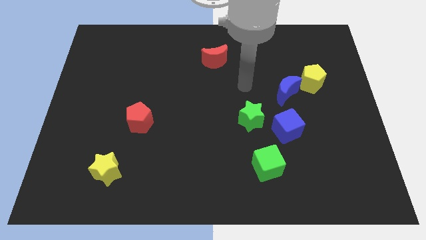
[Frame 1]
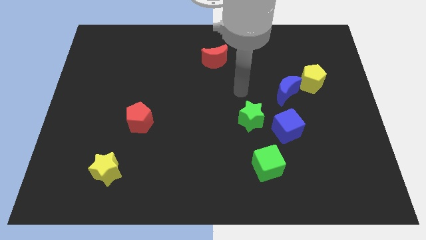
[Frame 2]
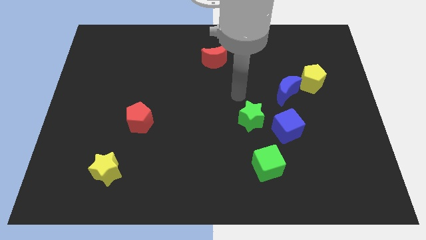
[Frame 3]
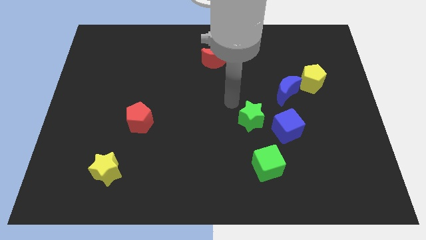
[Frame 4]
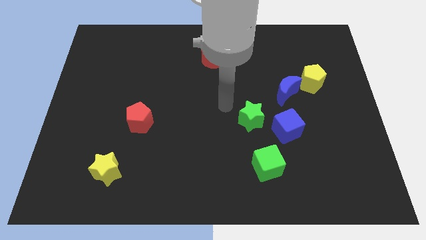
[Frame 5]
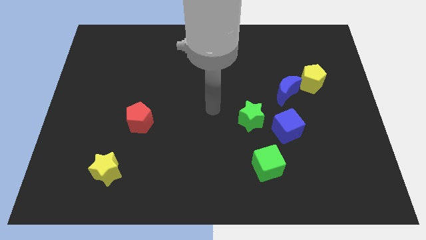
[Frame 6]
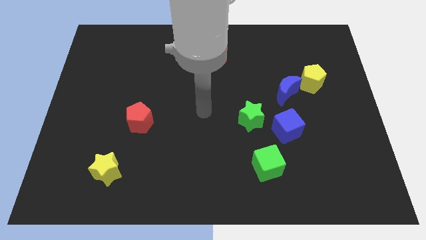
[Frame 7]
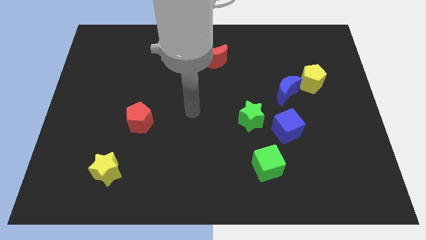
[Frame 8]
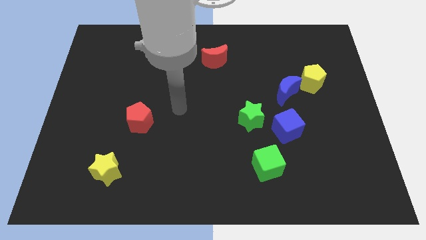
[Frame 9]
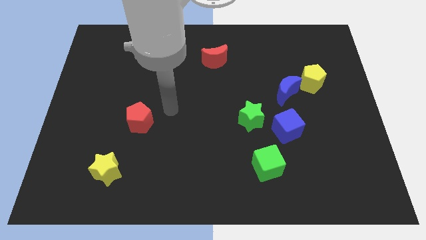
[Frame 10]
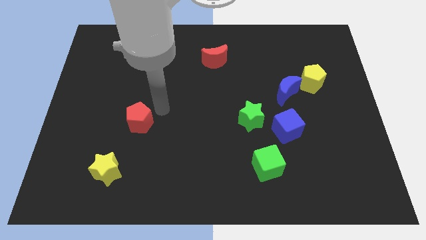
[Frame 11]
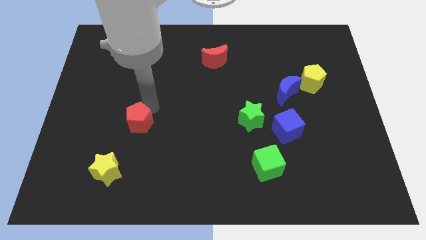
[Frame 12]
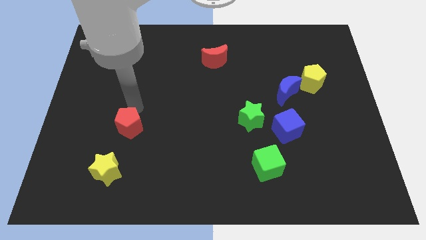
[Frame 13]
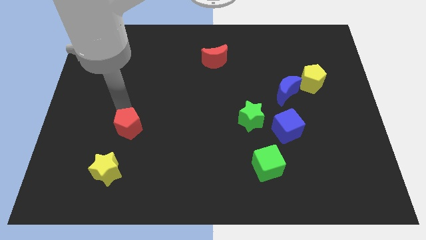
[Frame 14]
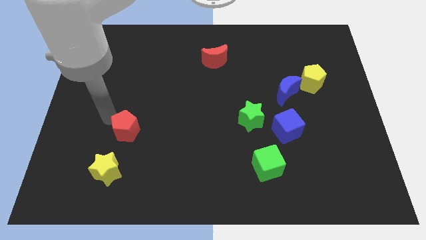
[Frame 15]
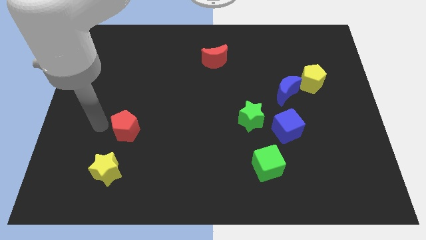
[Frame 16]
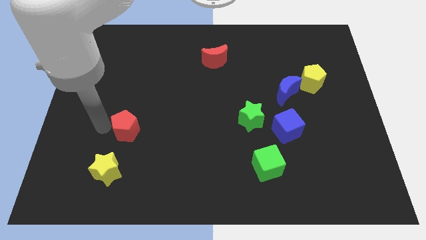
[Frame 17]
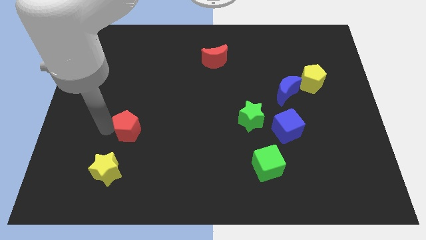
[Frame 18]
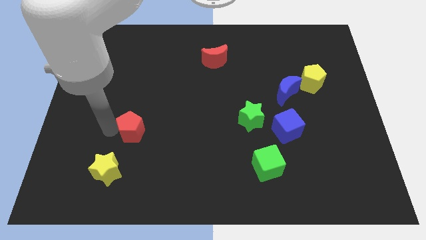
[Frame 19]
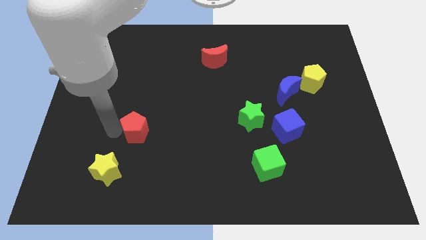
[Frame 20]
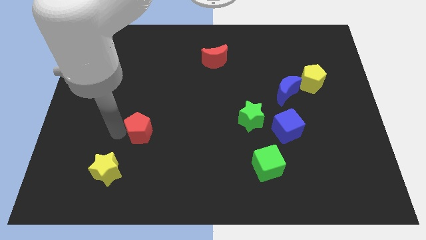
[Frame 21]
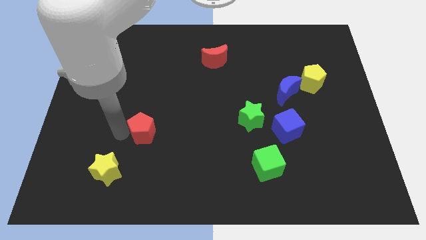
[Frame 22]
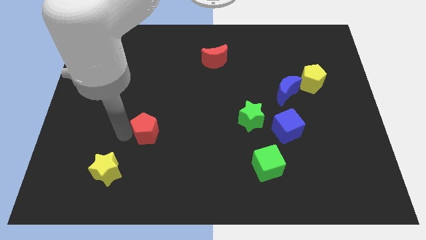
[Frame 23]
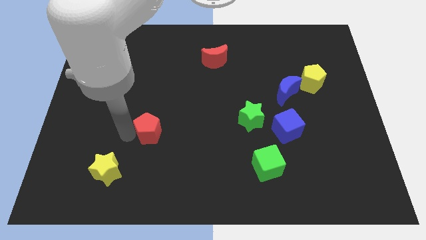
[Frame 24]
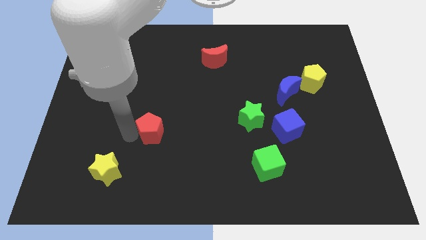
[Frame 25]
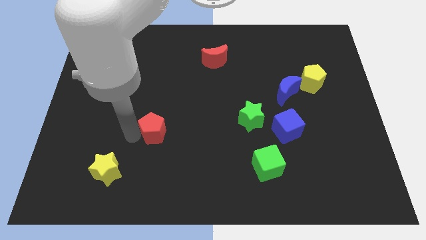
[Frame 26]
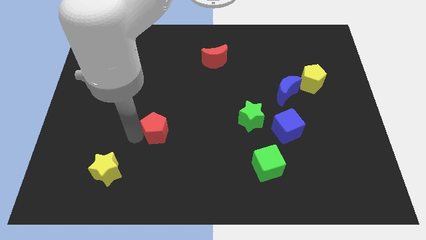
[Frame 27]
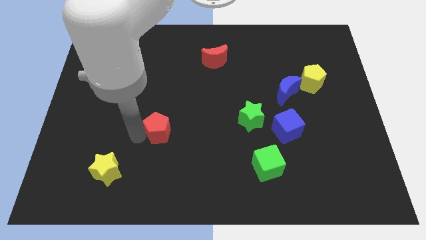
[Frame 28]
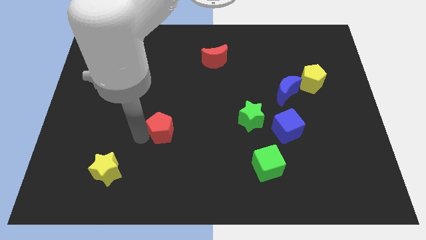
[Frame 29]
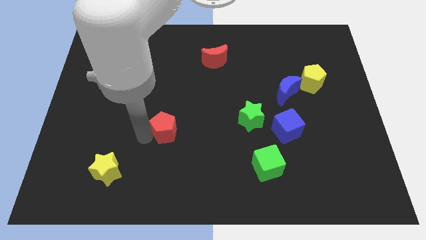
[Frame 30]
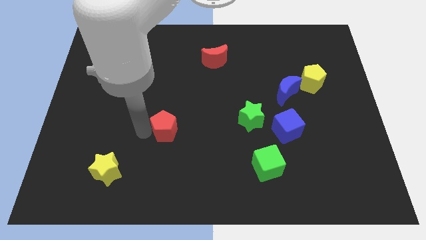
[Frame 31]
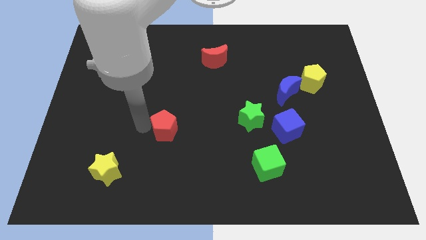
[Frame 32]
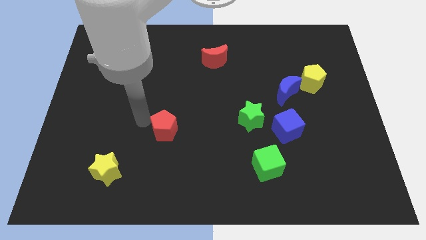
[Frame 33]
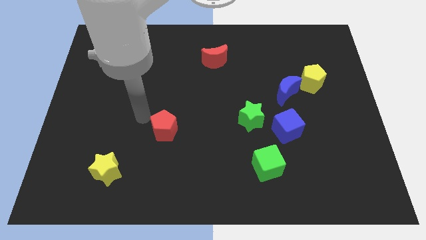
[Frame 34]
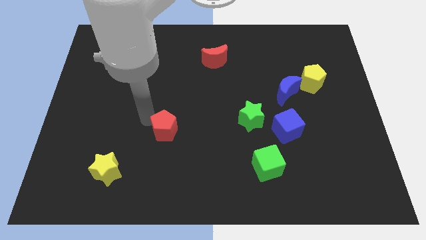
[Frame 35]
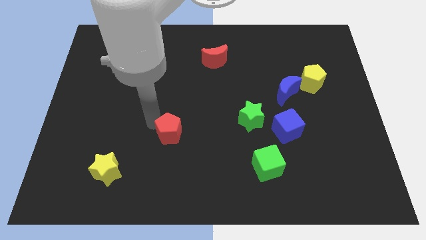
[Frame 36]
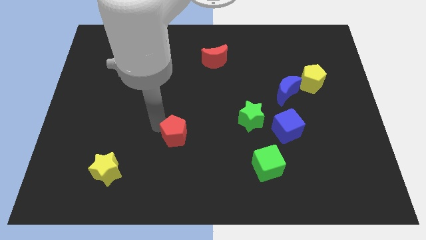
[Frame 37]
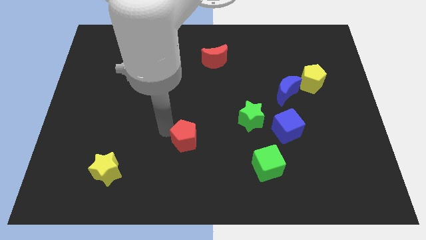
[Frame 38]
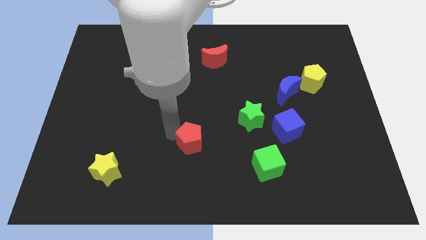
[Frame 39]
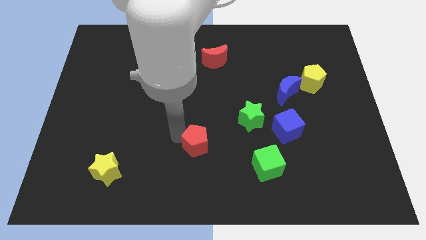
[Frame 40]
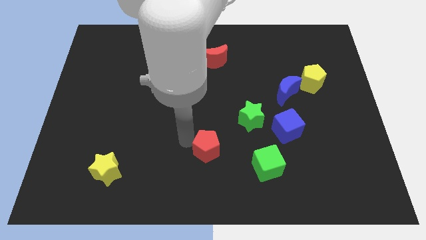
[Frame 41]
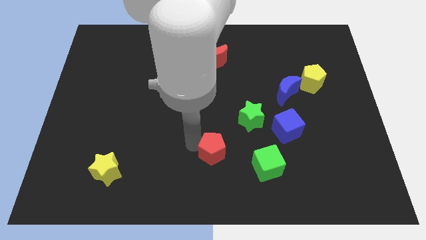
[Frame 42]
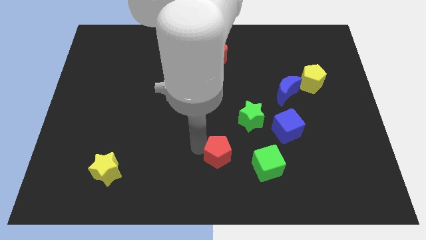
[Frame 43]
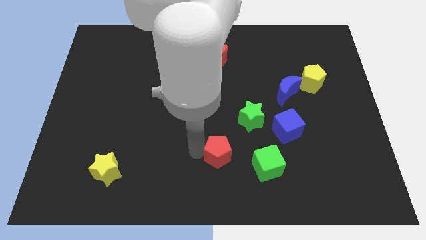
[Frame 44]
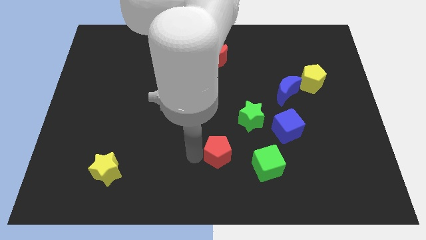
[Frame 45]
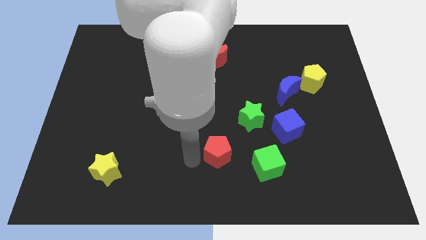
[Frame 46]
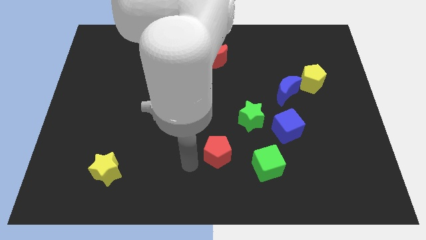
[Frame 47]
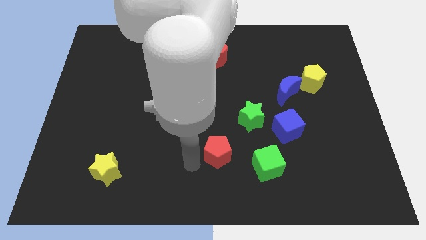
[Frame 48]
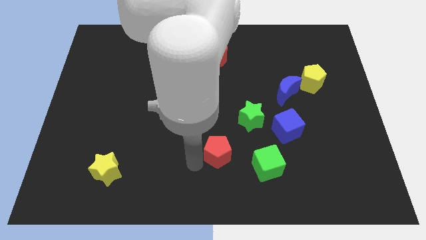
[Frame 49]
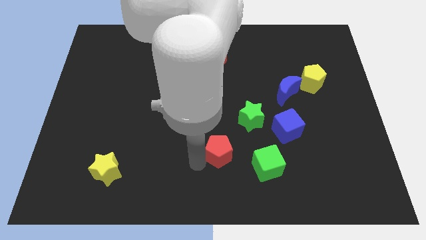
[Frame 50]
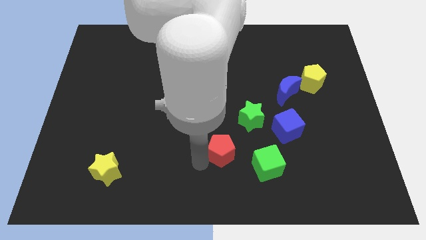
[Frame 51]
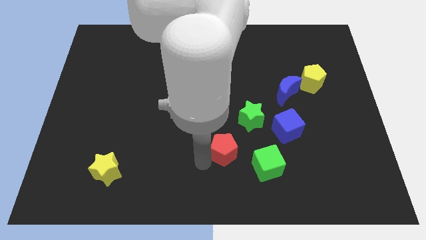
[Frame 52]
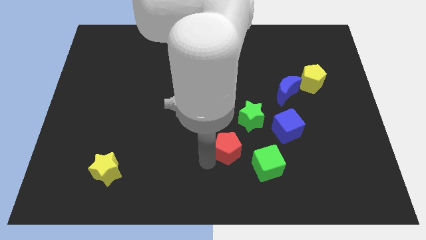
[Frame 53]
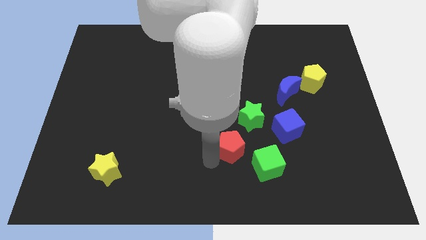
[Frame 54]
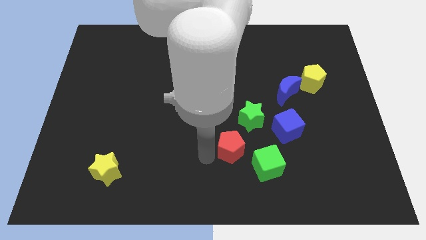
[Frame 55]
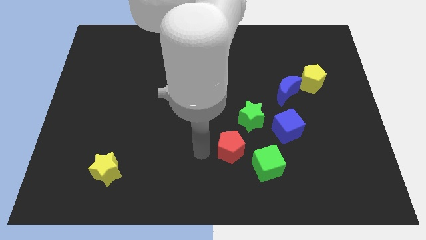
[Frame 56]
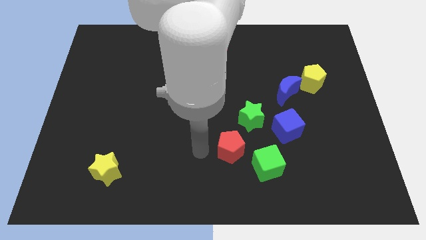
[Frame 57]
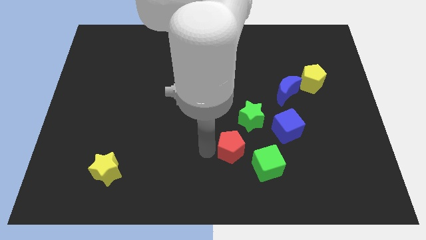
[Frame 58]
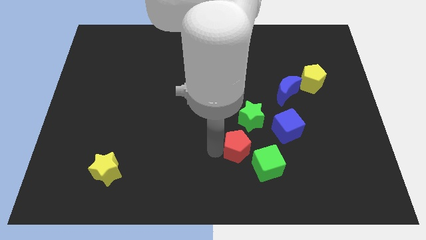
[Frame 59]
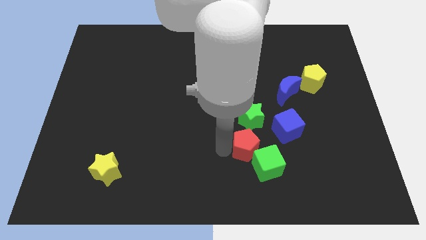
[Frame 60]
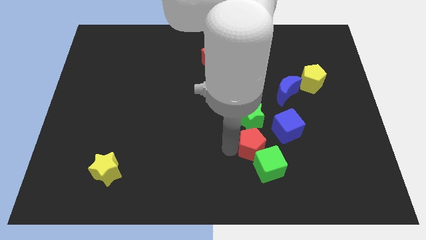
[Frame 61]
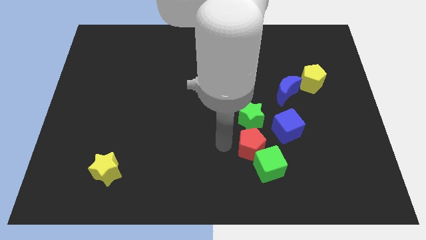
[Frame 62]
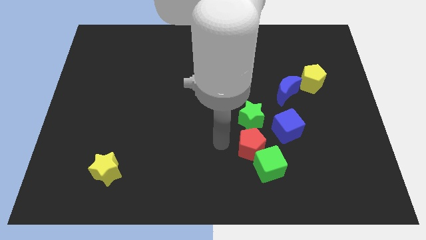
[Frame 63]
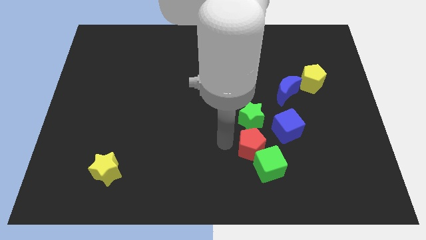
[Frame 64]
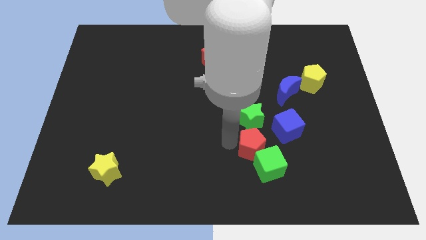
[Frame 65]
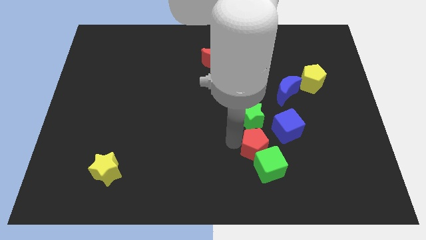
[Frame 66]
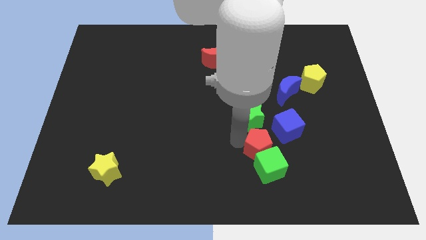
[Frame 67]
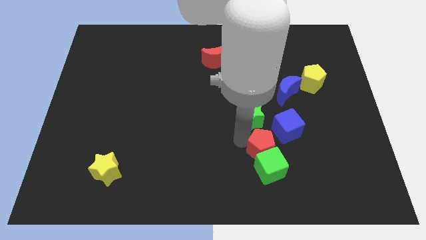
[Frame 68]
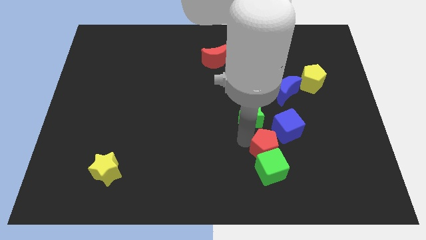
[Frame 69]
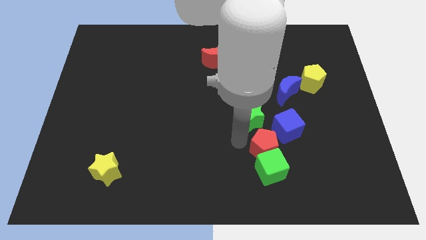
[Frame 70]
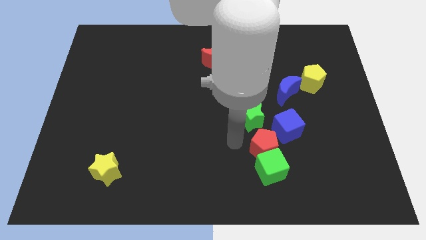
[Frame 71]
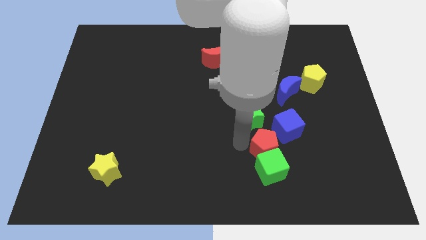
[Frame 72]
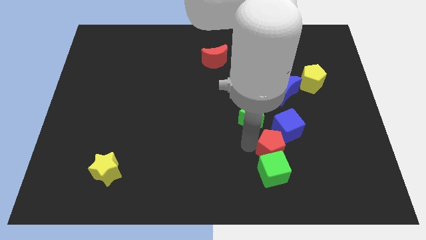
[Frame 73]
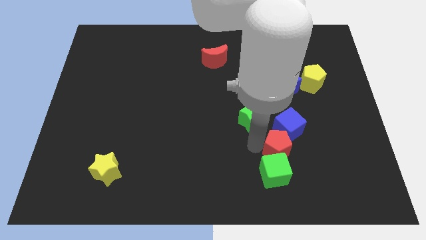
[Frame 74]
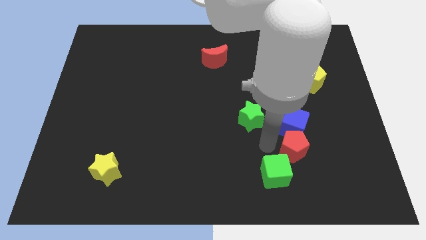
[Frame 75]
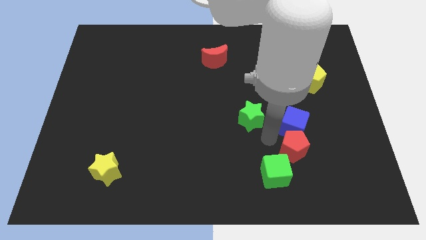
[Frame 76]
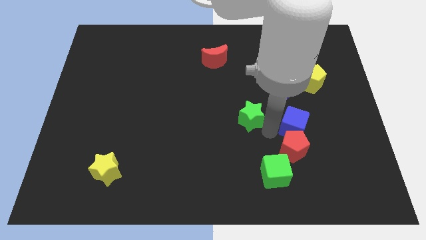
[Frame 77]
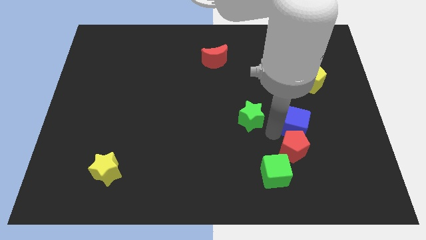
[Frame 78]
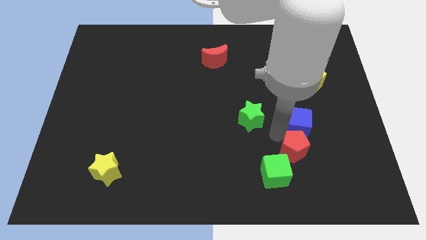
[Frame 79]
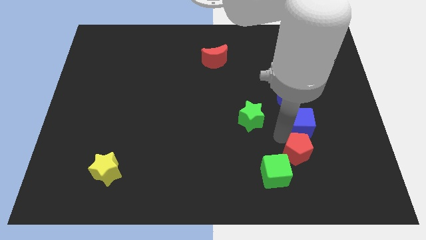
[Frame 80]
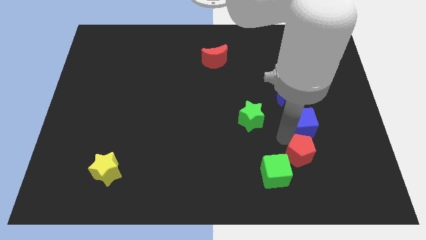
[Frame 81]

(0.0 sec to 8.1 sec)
move the red pentagon right of the green cube
